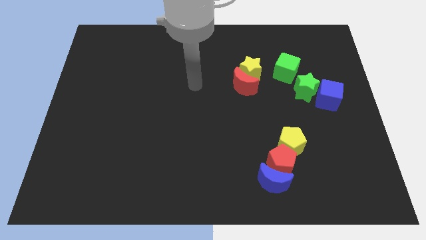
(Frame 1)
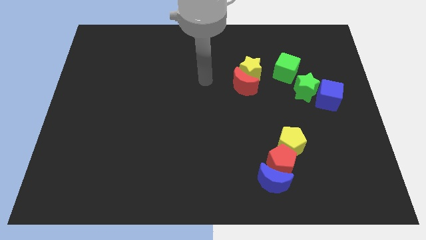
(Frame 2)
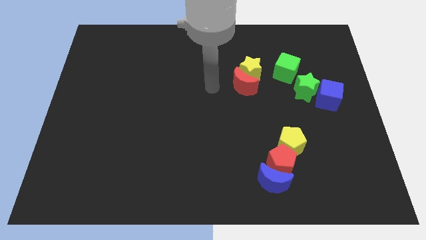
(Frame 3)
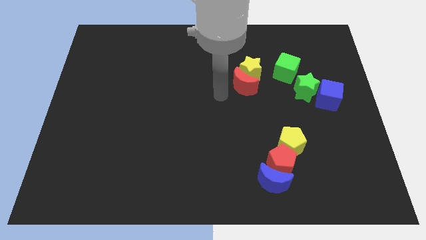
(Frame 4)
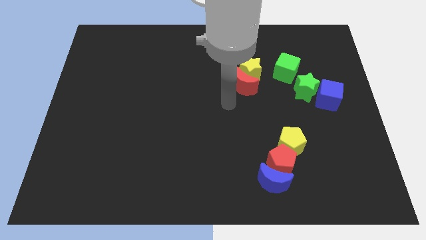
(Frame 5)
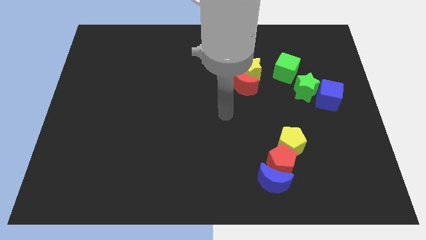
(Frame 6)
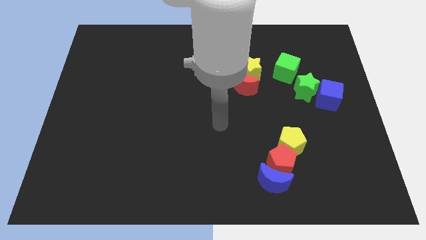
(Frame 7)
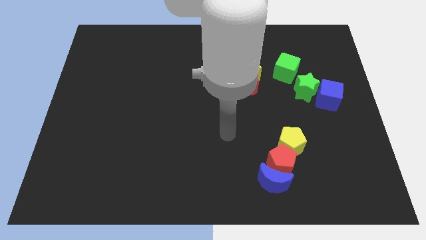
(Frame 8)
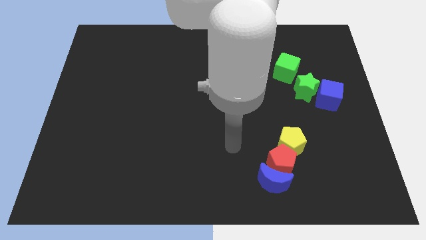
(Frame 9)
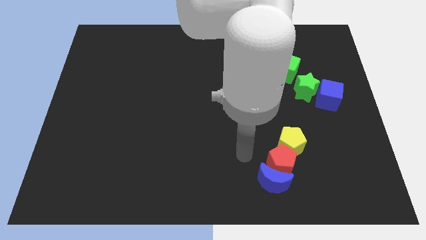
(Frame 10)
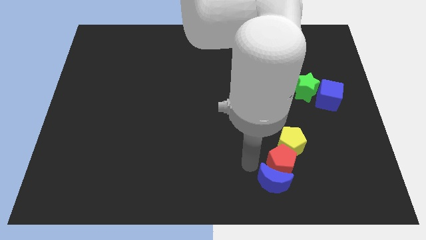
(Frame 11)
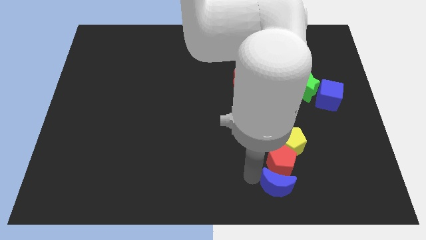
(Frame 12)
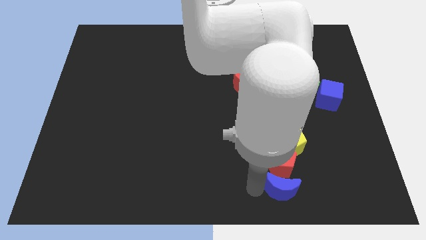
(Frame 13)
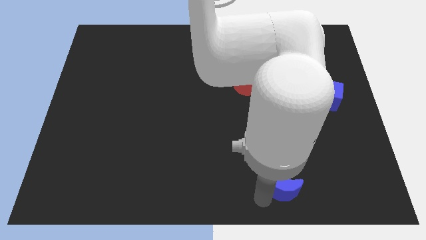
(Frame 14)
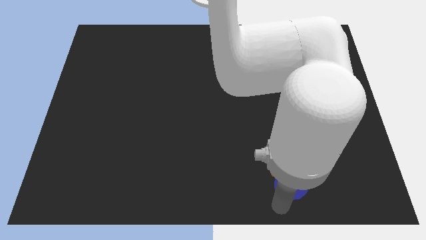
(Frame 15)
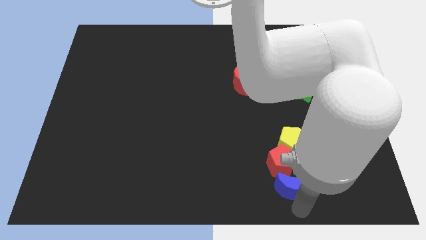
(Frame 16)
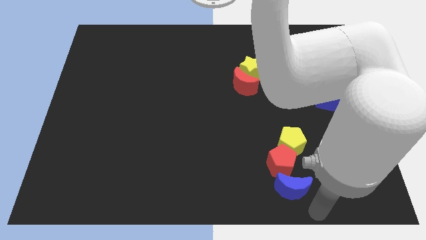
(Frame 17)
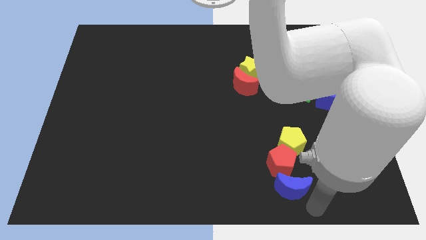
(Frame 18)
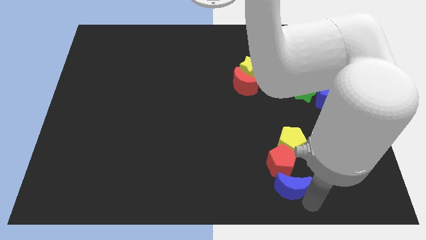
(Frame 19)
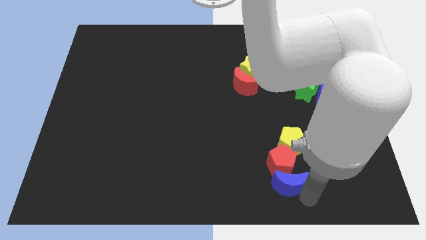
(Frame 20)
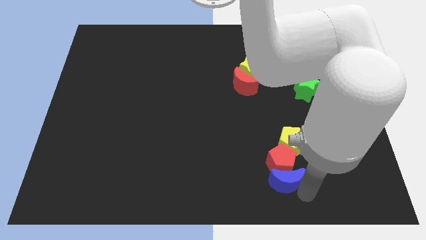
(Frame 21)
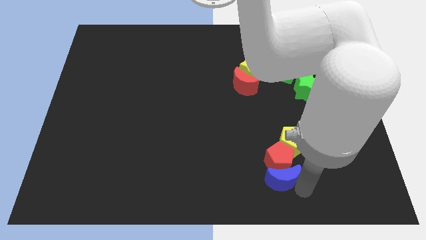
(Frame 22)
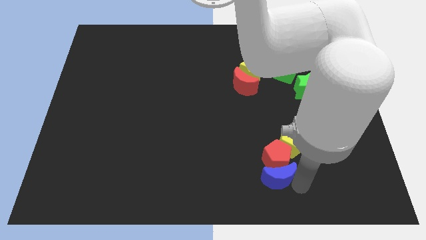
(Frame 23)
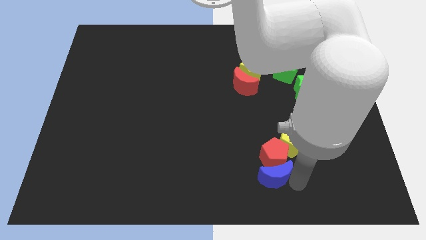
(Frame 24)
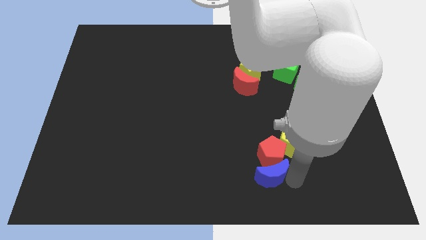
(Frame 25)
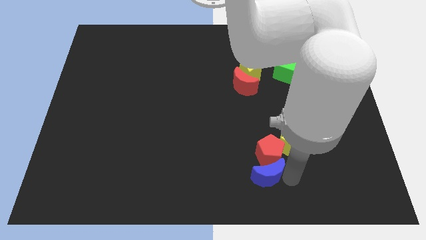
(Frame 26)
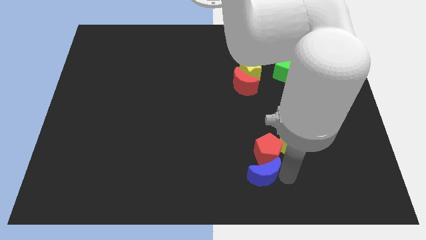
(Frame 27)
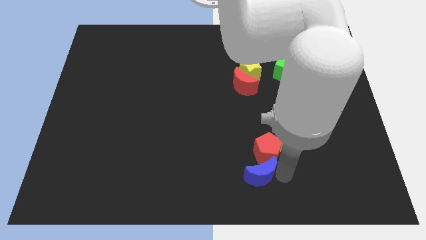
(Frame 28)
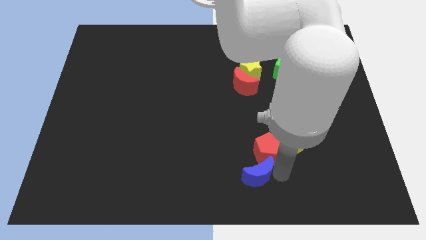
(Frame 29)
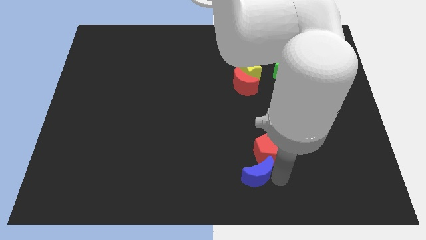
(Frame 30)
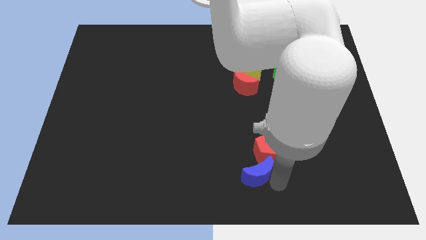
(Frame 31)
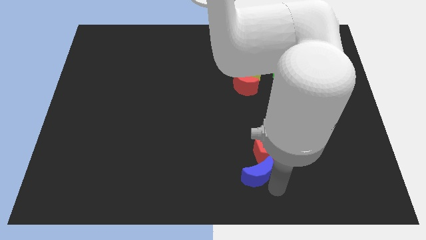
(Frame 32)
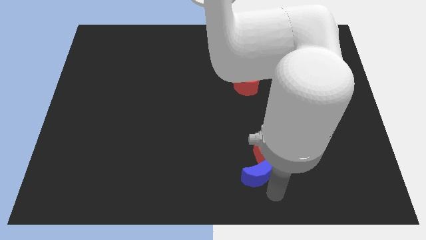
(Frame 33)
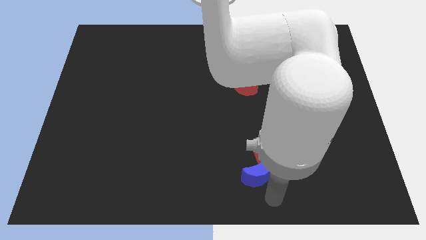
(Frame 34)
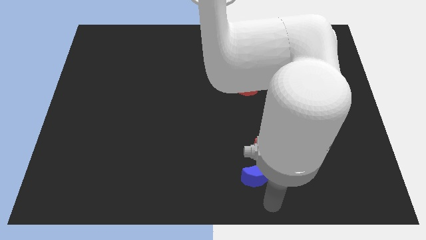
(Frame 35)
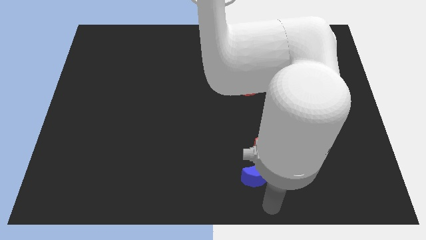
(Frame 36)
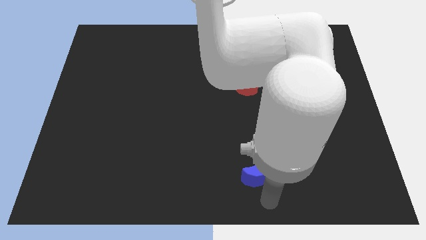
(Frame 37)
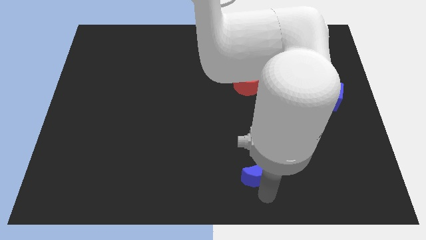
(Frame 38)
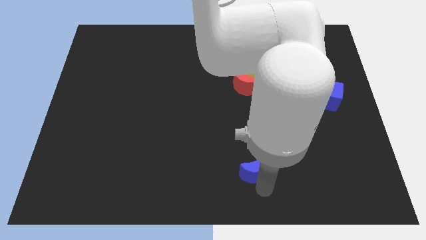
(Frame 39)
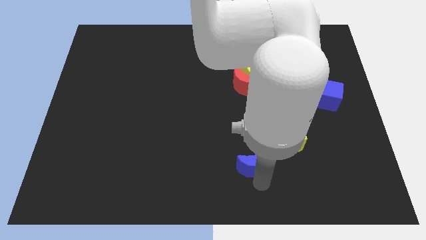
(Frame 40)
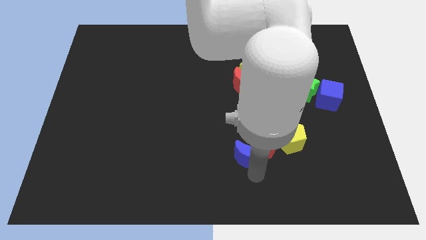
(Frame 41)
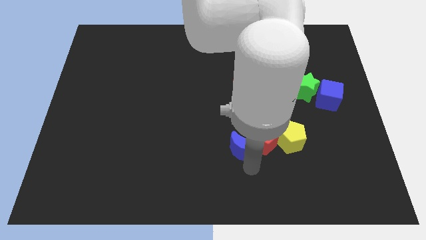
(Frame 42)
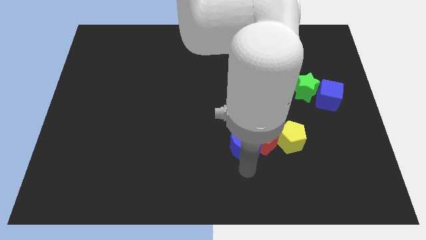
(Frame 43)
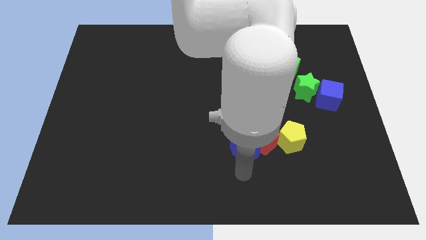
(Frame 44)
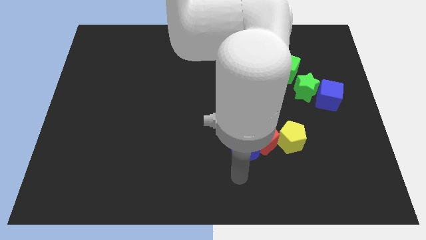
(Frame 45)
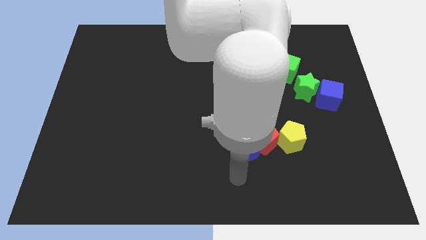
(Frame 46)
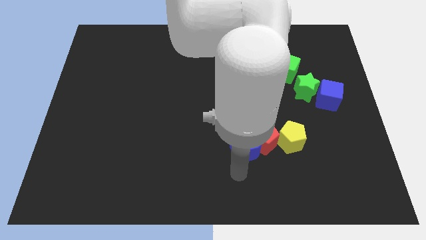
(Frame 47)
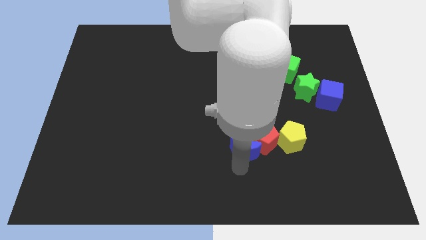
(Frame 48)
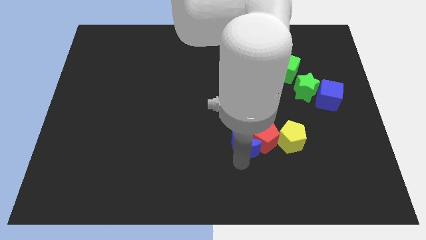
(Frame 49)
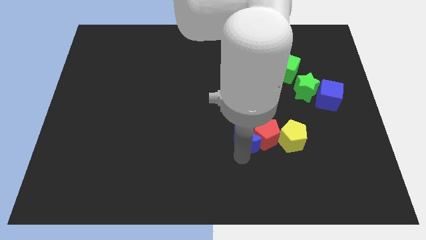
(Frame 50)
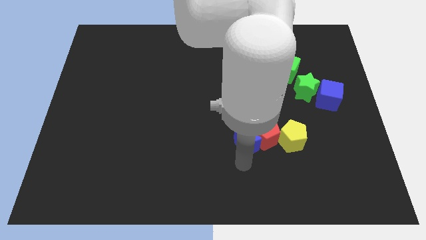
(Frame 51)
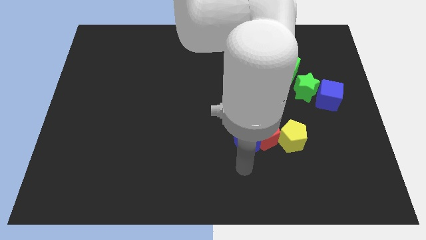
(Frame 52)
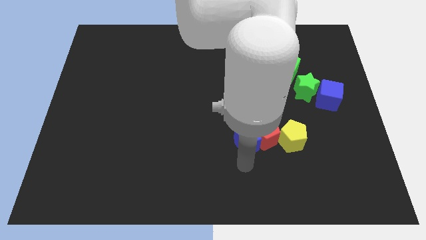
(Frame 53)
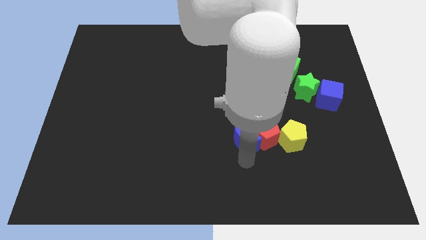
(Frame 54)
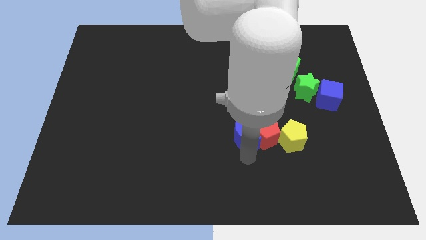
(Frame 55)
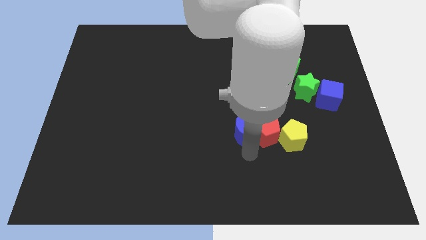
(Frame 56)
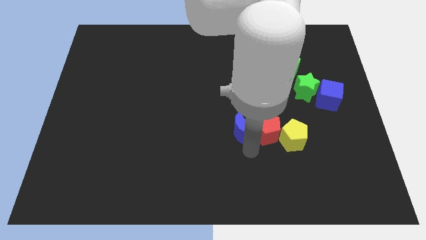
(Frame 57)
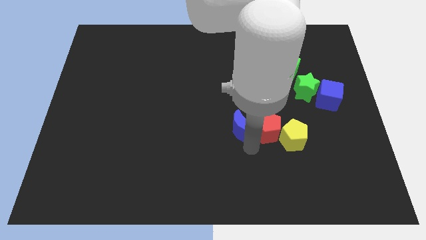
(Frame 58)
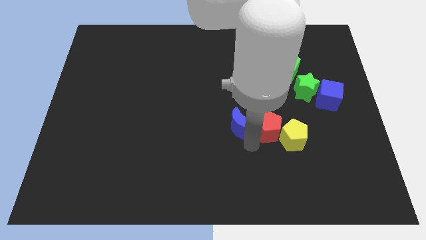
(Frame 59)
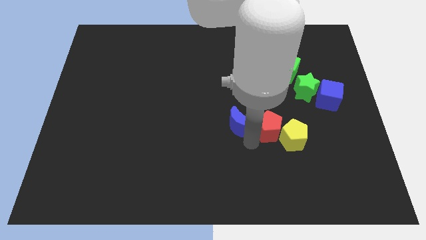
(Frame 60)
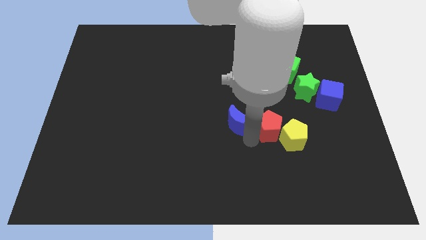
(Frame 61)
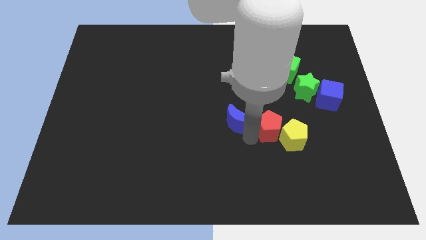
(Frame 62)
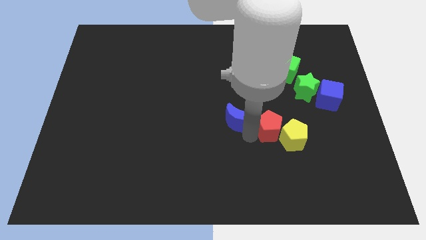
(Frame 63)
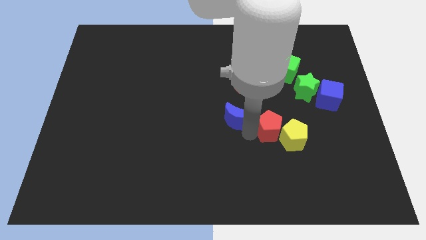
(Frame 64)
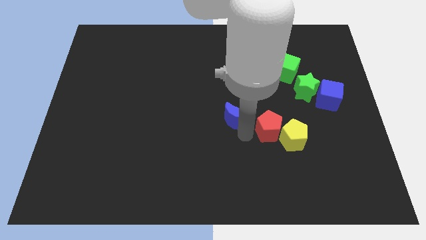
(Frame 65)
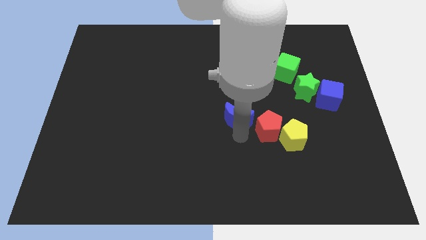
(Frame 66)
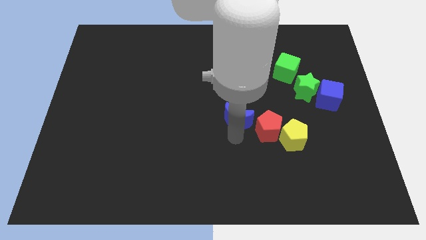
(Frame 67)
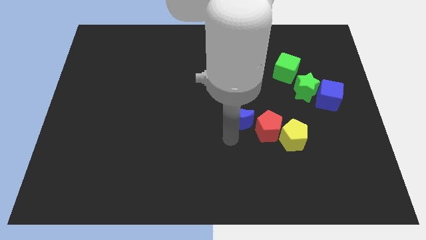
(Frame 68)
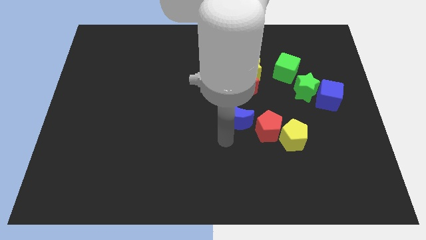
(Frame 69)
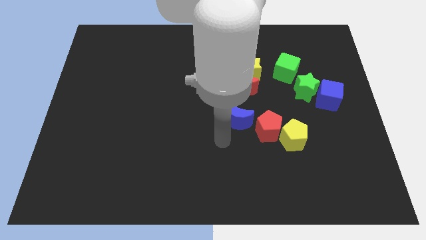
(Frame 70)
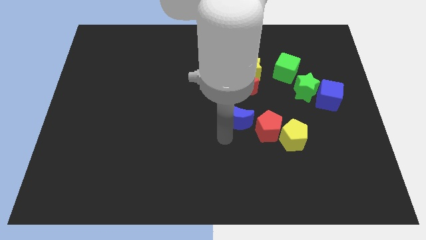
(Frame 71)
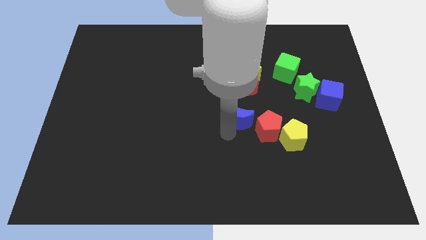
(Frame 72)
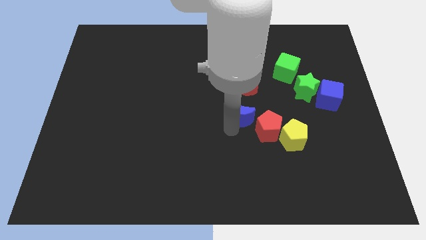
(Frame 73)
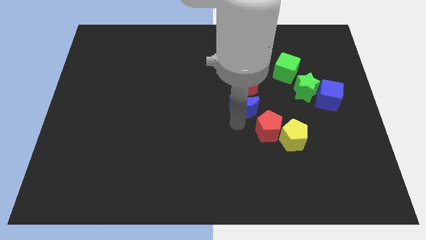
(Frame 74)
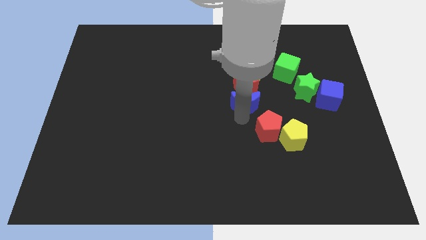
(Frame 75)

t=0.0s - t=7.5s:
push the blue moon next to the red moon

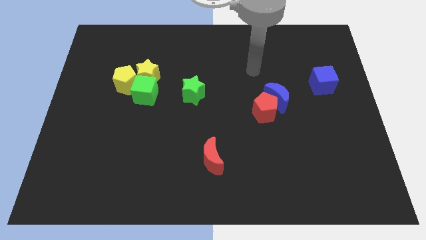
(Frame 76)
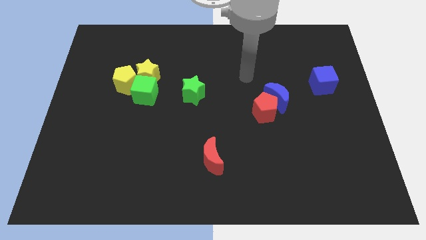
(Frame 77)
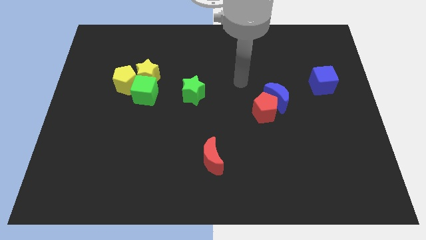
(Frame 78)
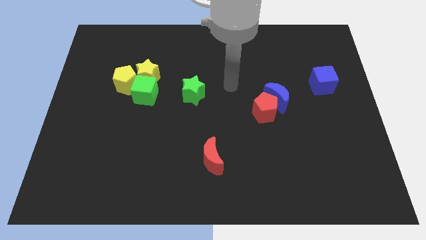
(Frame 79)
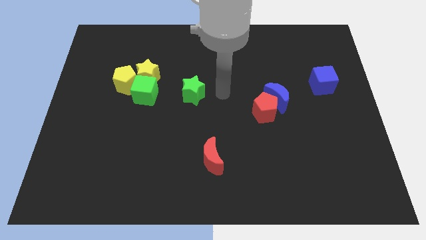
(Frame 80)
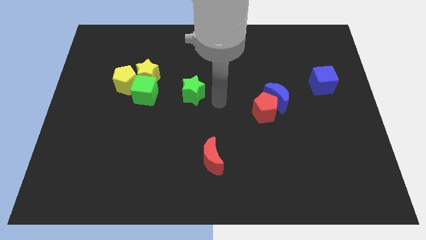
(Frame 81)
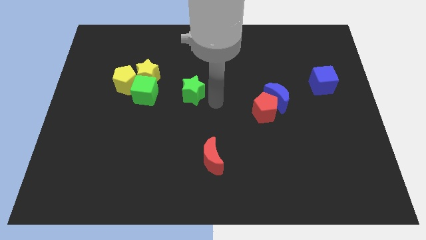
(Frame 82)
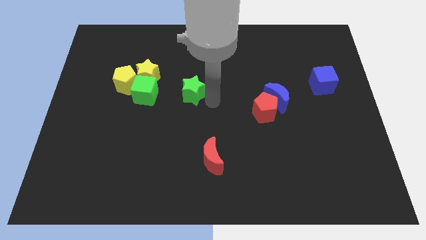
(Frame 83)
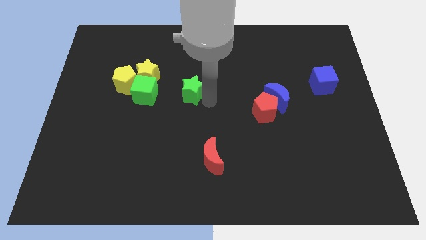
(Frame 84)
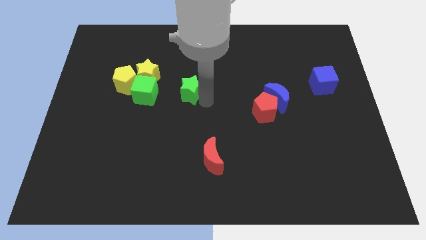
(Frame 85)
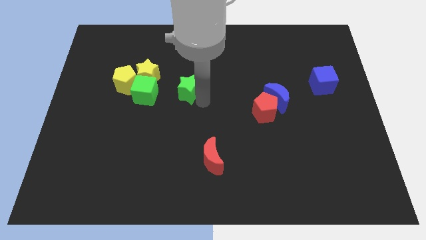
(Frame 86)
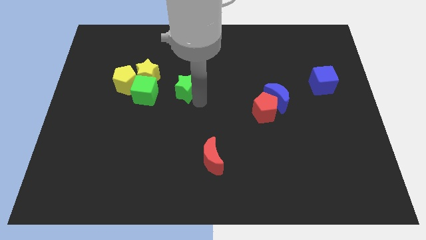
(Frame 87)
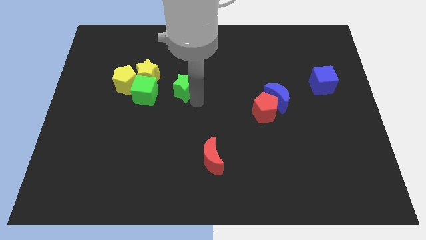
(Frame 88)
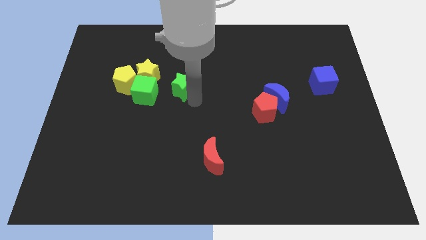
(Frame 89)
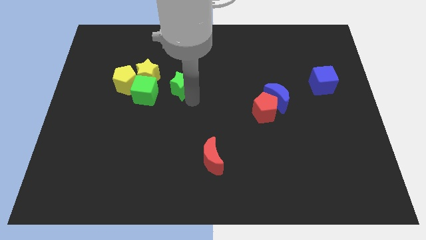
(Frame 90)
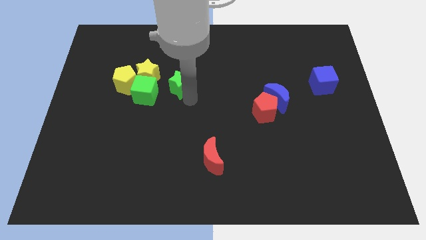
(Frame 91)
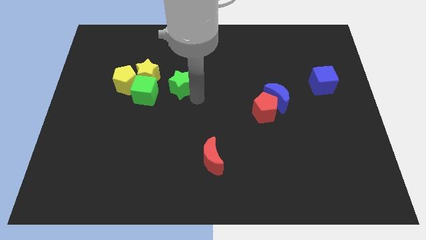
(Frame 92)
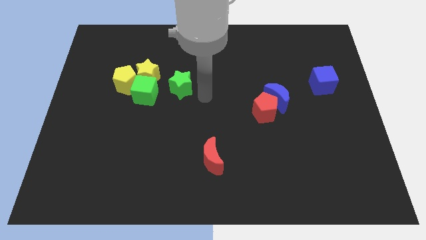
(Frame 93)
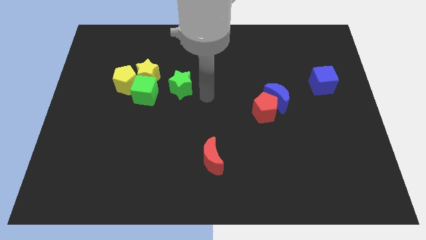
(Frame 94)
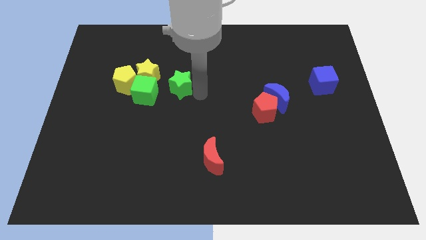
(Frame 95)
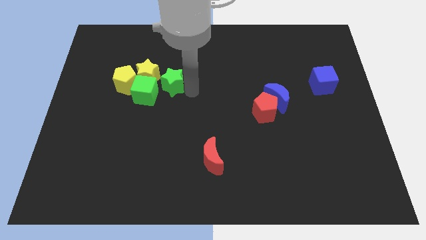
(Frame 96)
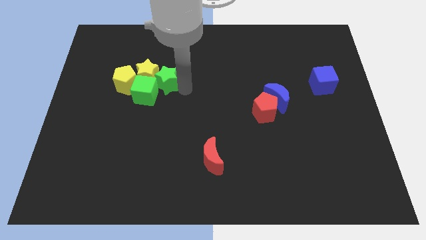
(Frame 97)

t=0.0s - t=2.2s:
push the green star close to the yellow star
